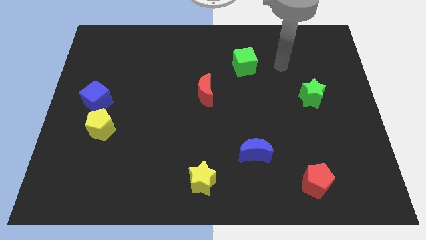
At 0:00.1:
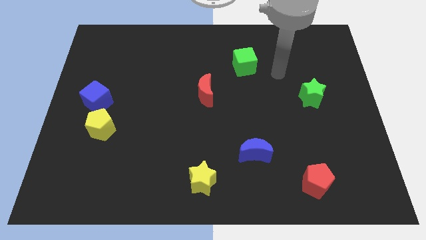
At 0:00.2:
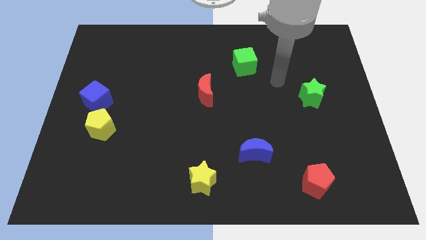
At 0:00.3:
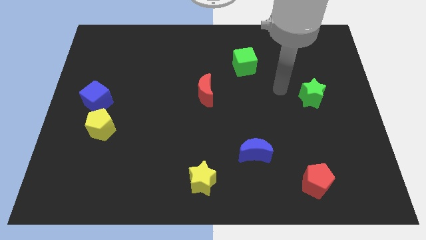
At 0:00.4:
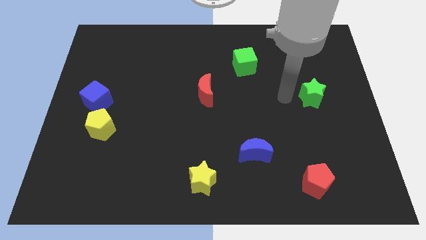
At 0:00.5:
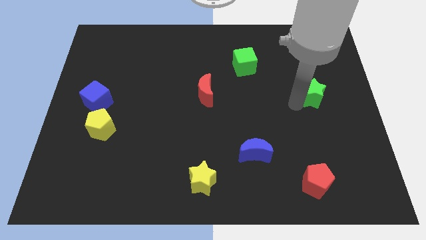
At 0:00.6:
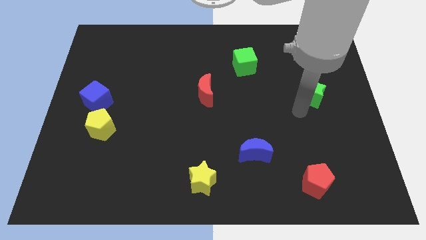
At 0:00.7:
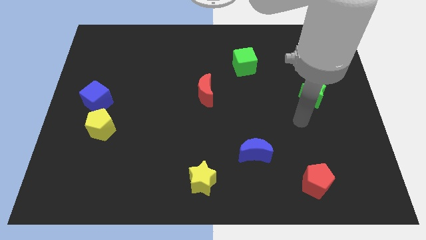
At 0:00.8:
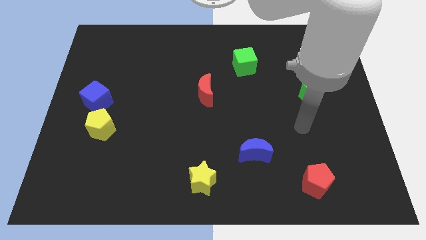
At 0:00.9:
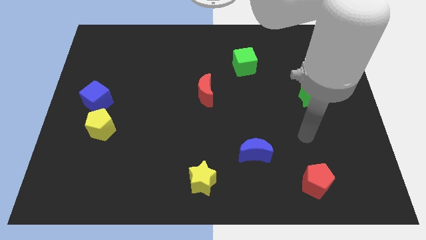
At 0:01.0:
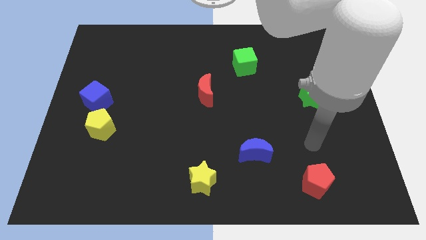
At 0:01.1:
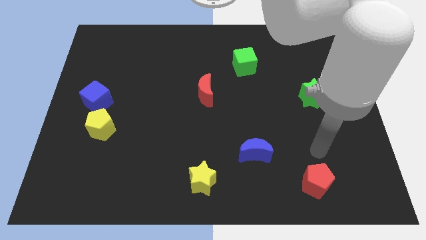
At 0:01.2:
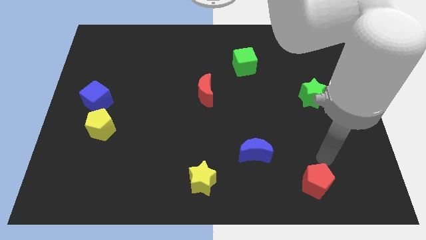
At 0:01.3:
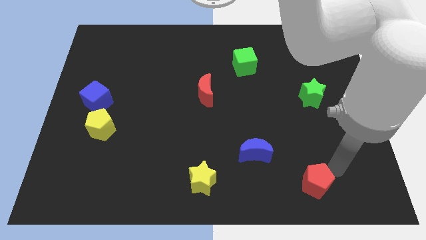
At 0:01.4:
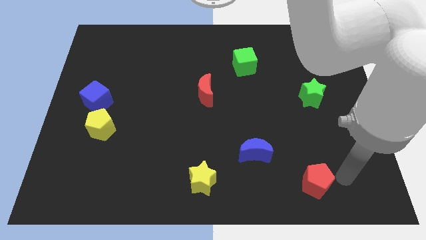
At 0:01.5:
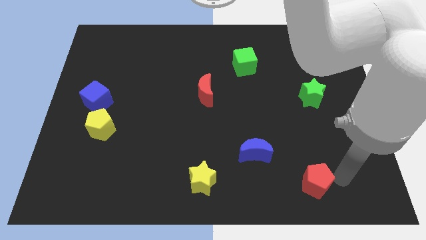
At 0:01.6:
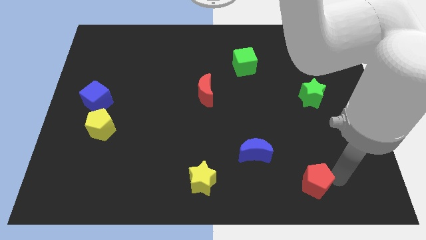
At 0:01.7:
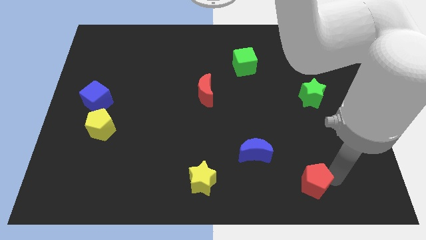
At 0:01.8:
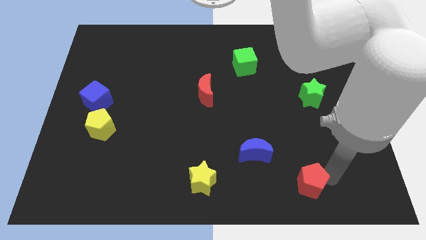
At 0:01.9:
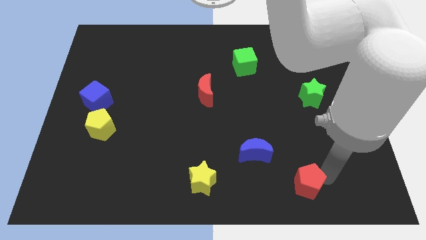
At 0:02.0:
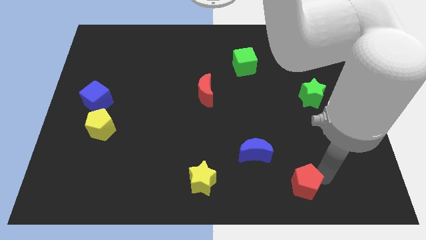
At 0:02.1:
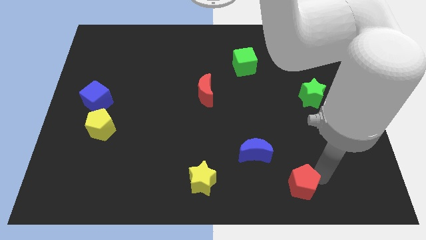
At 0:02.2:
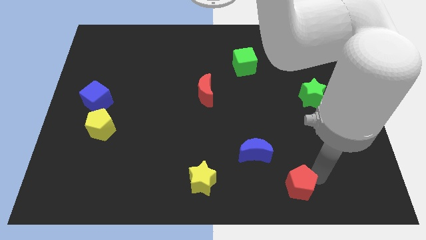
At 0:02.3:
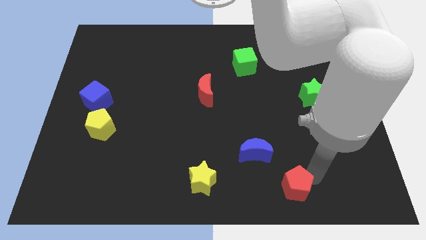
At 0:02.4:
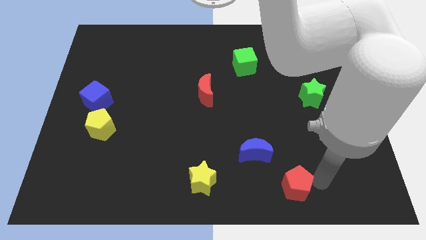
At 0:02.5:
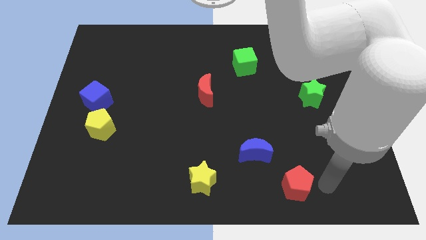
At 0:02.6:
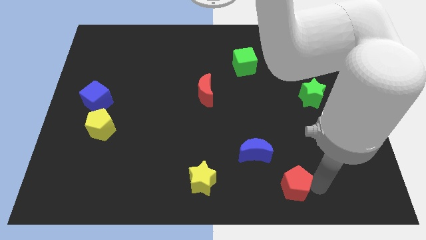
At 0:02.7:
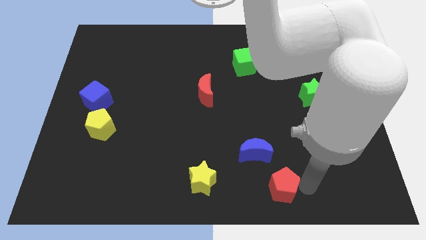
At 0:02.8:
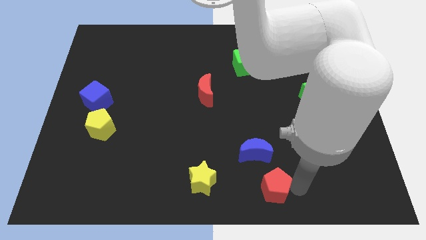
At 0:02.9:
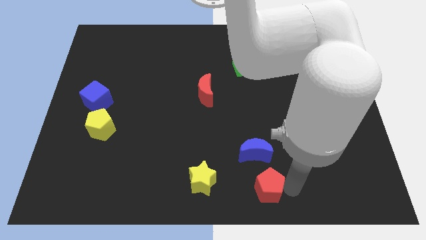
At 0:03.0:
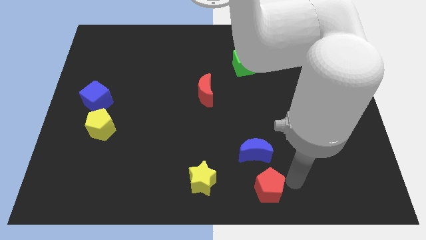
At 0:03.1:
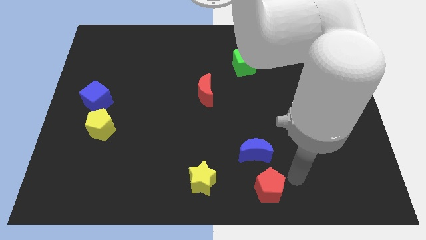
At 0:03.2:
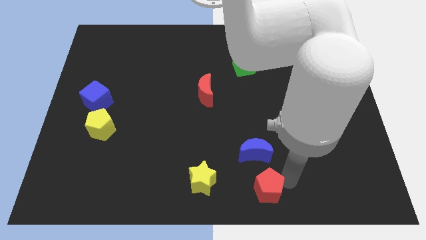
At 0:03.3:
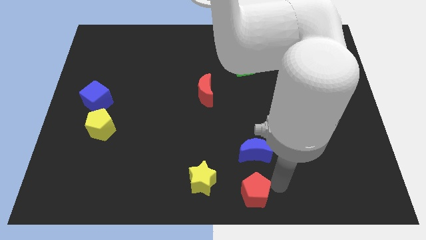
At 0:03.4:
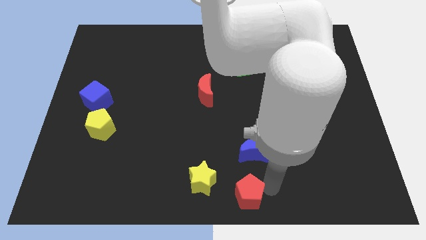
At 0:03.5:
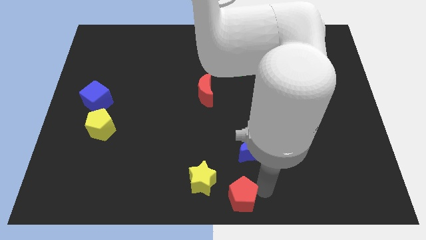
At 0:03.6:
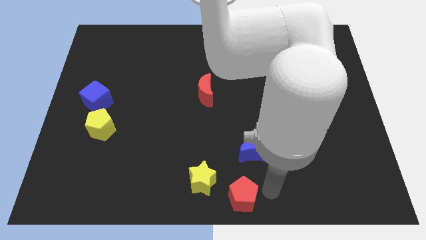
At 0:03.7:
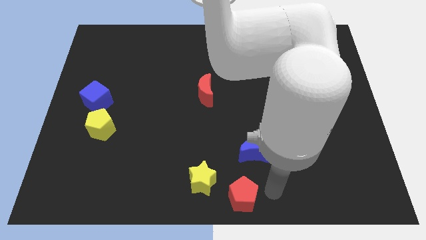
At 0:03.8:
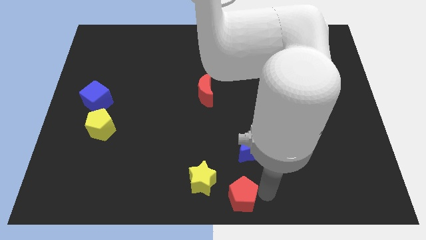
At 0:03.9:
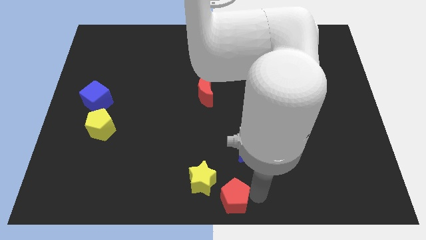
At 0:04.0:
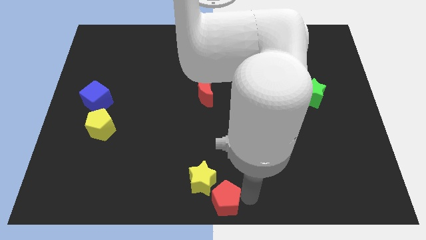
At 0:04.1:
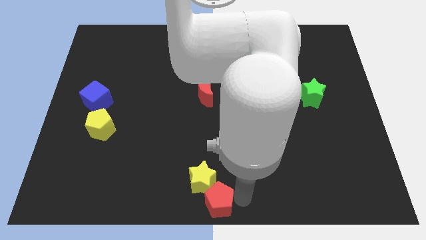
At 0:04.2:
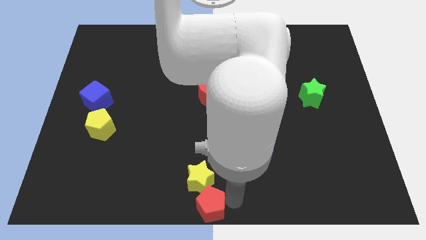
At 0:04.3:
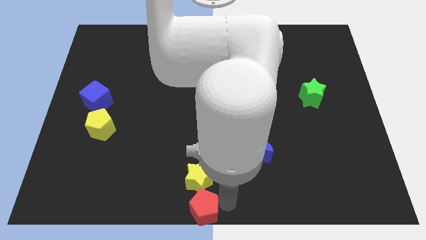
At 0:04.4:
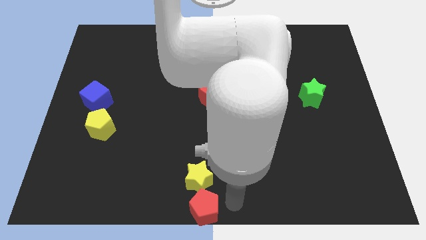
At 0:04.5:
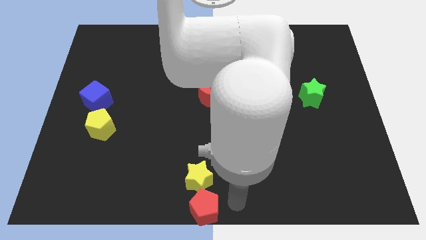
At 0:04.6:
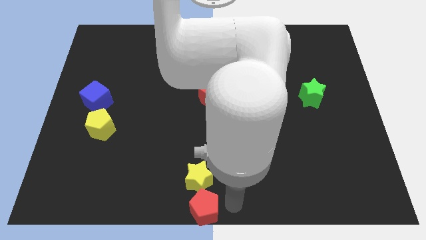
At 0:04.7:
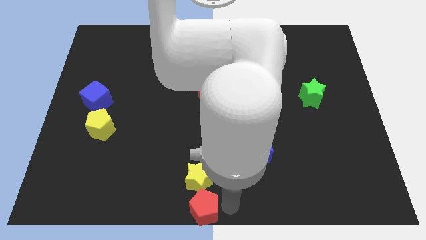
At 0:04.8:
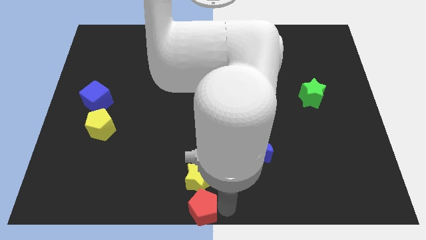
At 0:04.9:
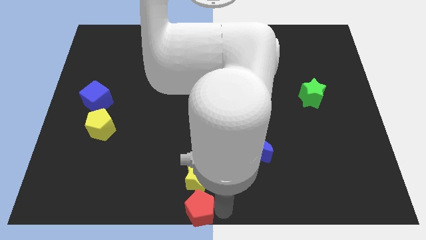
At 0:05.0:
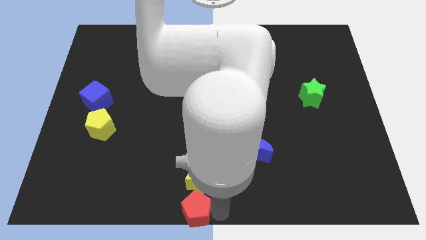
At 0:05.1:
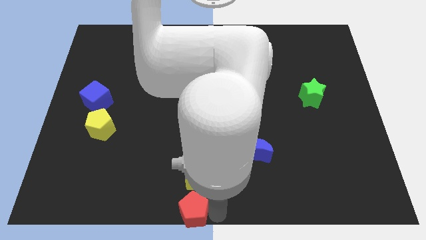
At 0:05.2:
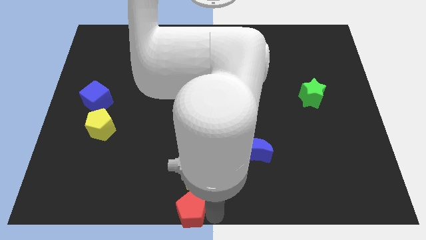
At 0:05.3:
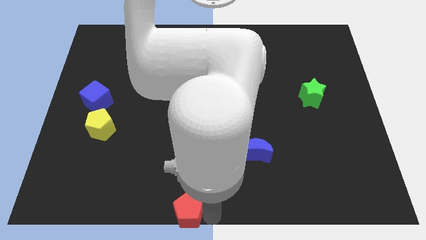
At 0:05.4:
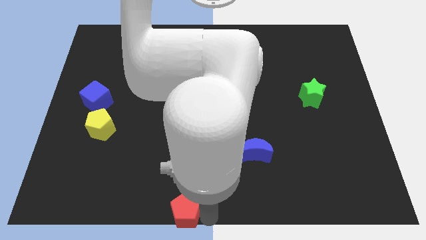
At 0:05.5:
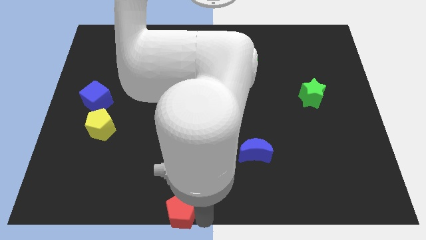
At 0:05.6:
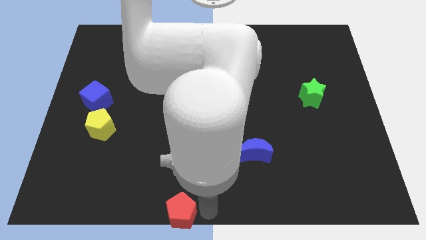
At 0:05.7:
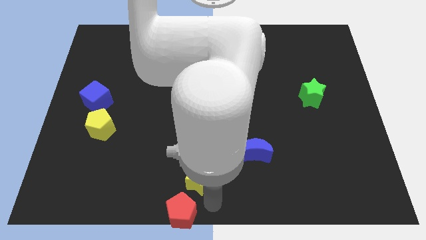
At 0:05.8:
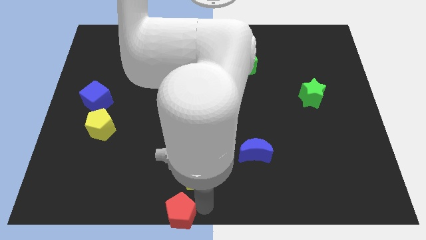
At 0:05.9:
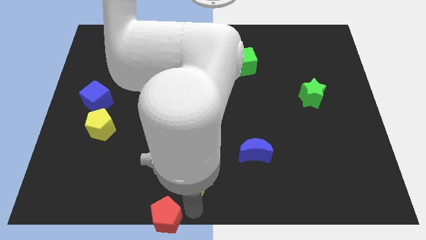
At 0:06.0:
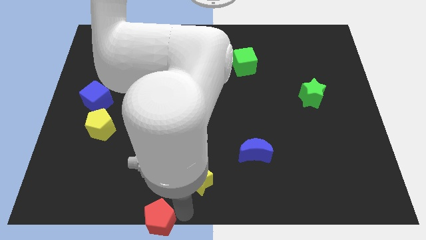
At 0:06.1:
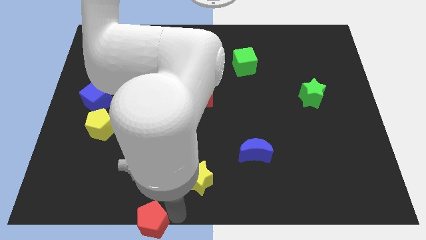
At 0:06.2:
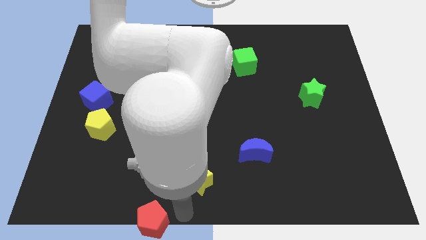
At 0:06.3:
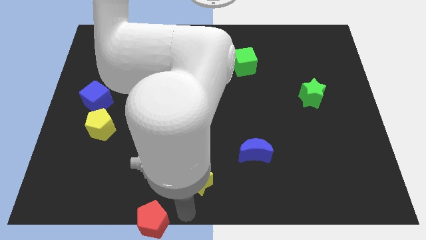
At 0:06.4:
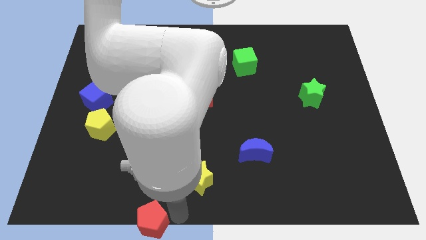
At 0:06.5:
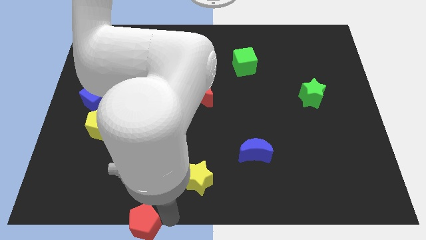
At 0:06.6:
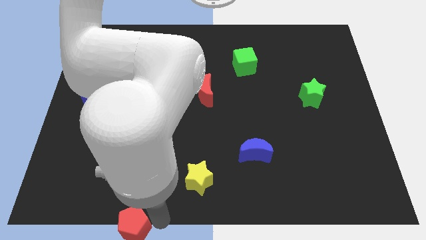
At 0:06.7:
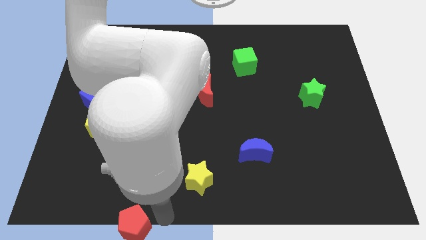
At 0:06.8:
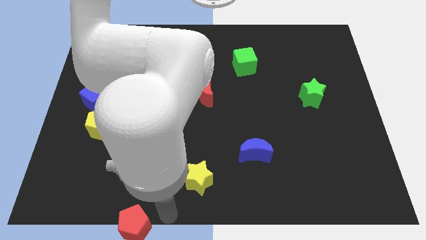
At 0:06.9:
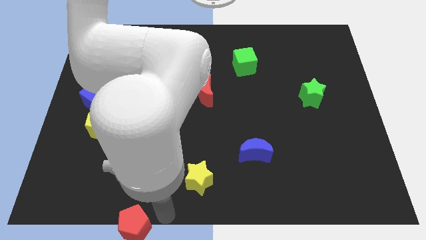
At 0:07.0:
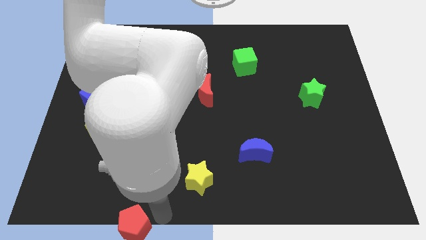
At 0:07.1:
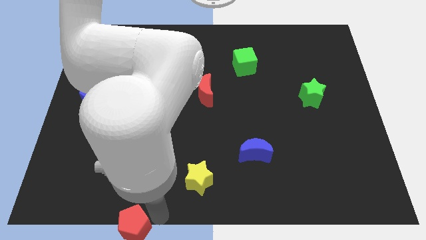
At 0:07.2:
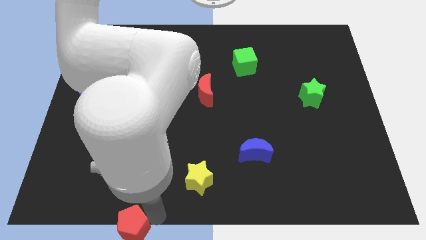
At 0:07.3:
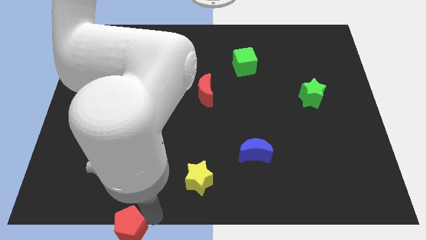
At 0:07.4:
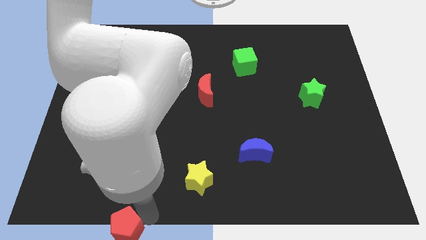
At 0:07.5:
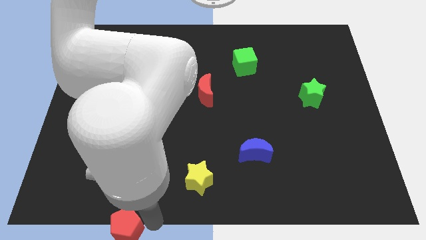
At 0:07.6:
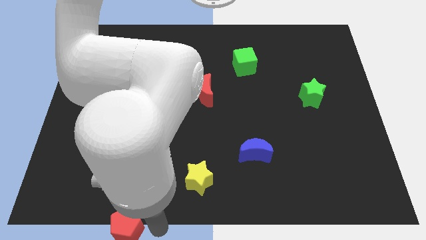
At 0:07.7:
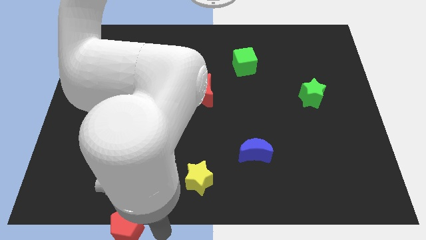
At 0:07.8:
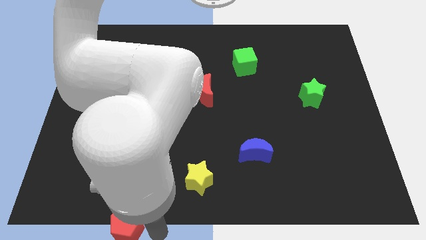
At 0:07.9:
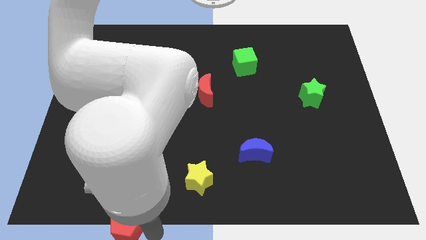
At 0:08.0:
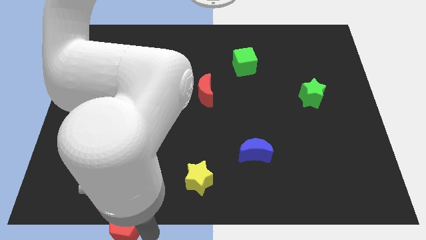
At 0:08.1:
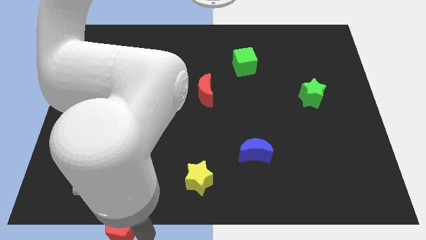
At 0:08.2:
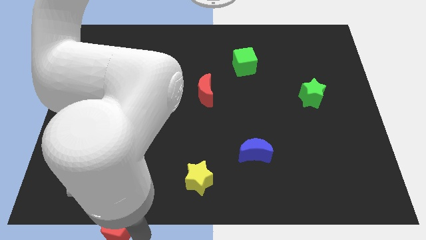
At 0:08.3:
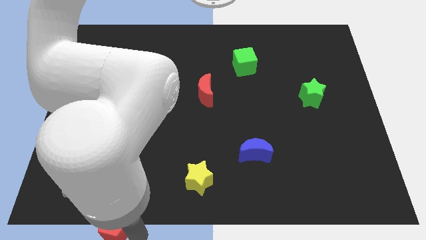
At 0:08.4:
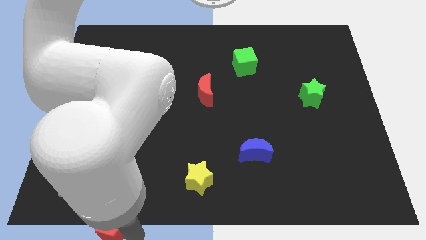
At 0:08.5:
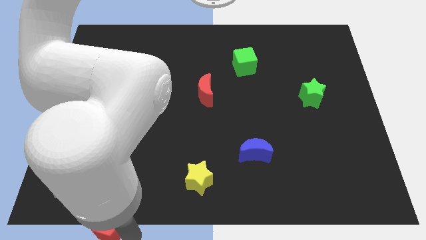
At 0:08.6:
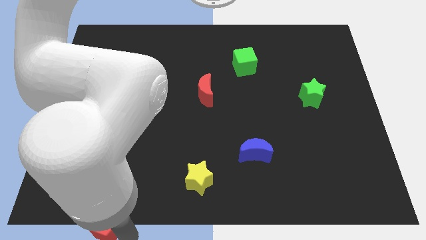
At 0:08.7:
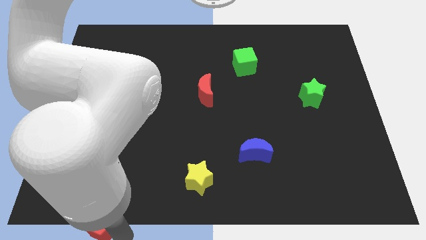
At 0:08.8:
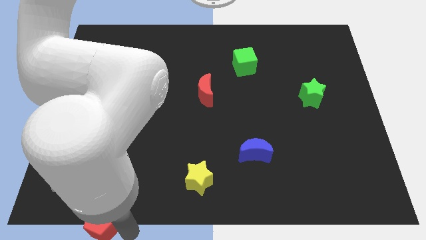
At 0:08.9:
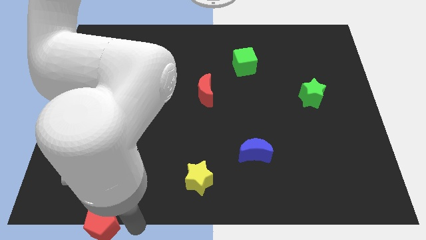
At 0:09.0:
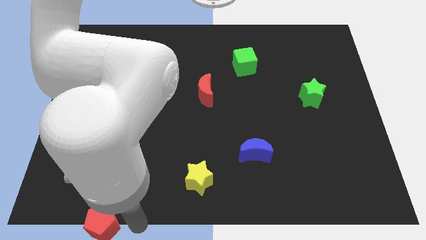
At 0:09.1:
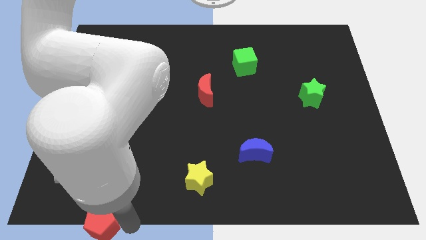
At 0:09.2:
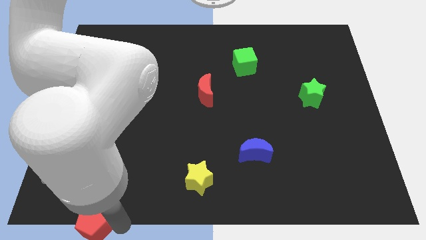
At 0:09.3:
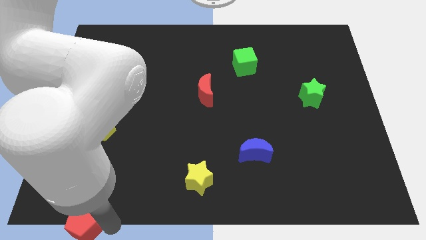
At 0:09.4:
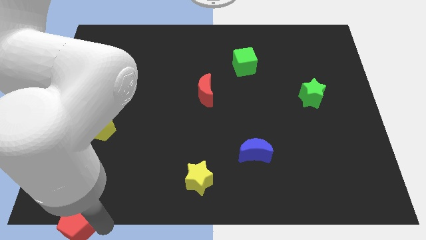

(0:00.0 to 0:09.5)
put the red pentagon to the bottom left of the board
